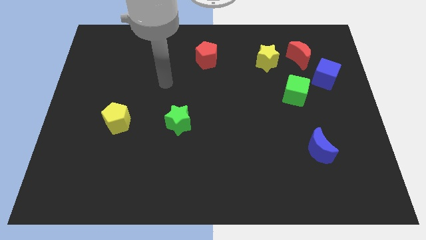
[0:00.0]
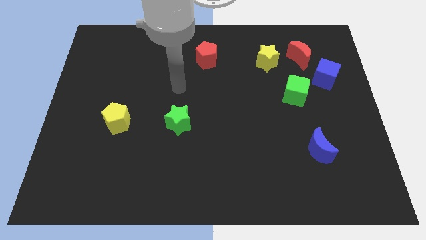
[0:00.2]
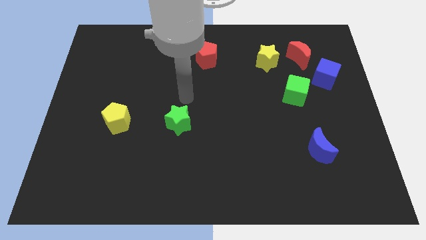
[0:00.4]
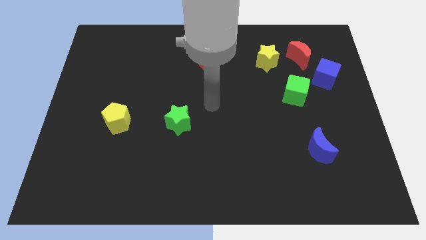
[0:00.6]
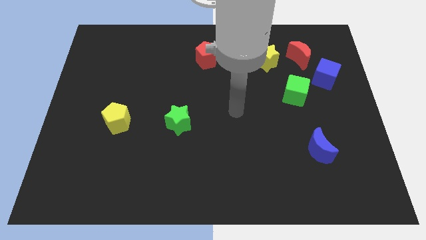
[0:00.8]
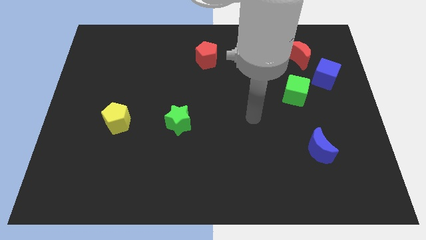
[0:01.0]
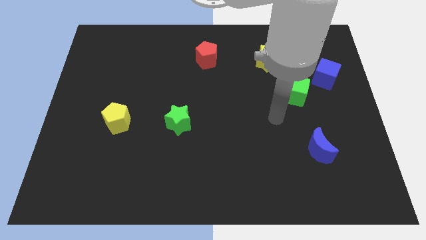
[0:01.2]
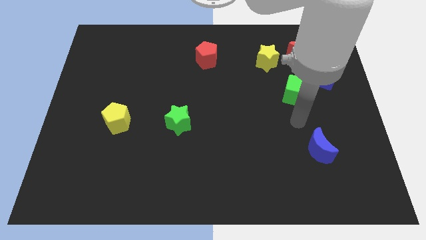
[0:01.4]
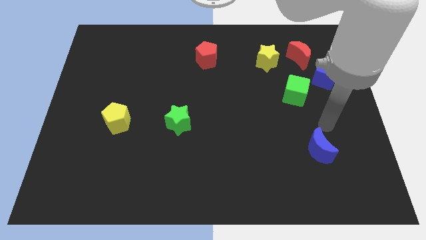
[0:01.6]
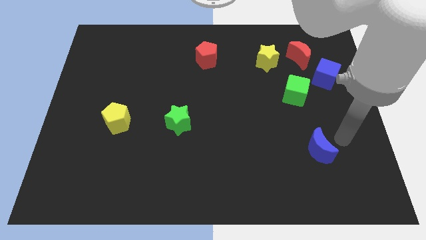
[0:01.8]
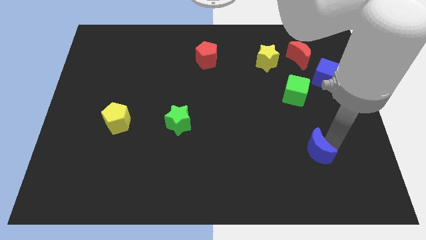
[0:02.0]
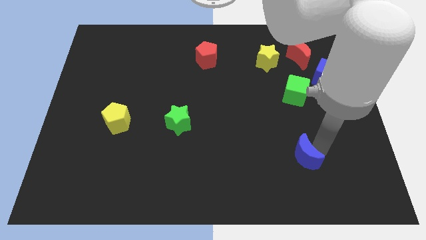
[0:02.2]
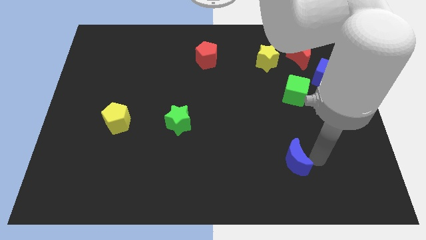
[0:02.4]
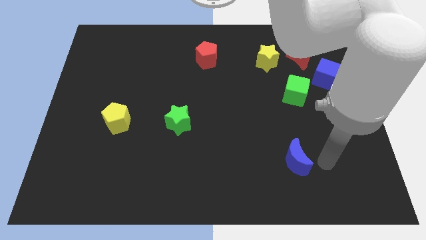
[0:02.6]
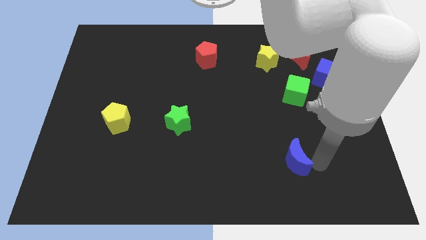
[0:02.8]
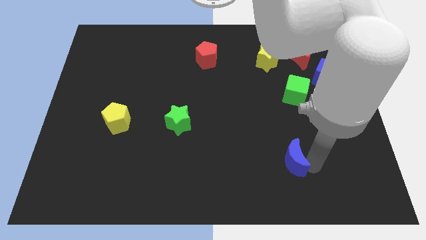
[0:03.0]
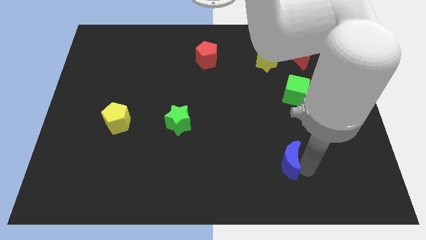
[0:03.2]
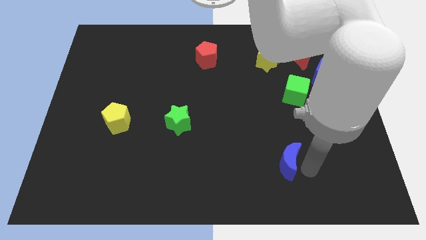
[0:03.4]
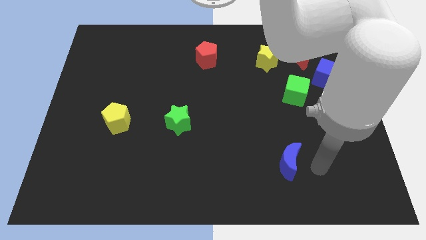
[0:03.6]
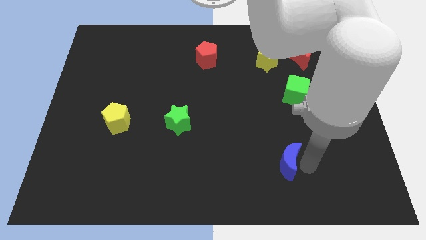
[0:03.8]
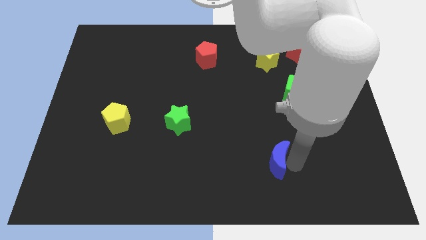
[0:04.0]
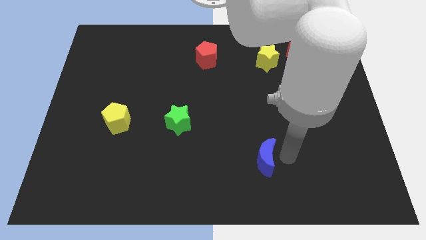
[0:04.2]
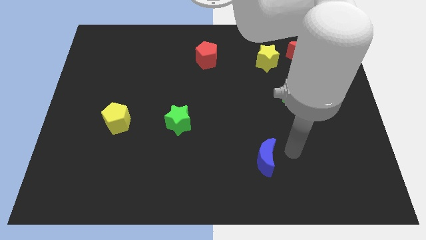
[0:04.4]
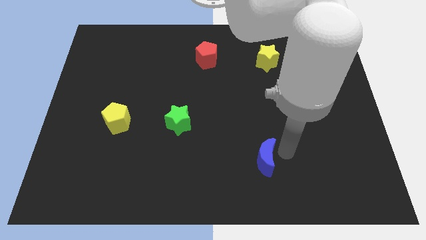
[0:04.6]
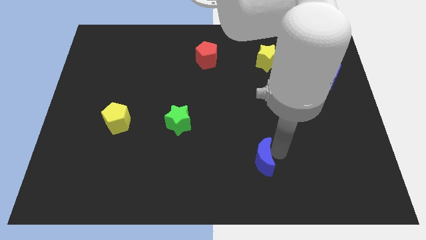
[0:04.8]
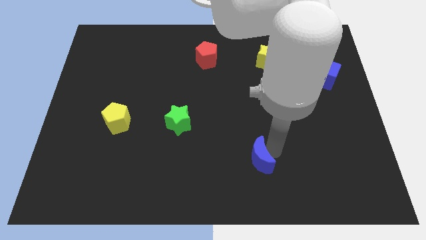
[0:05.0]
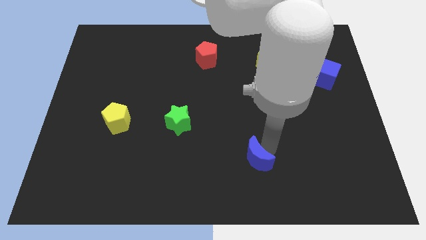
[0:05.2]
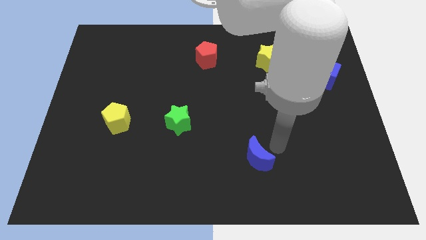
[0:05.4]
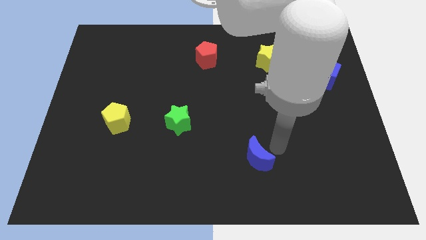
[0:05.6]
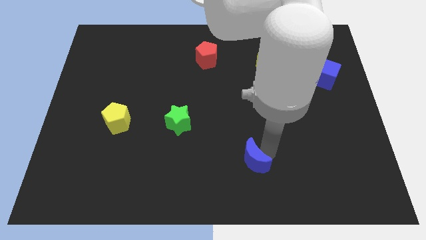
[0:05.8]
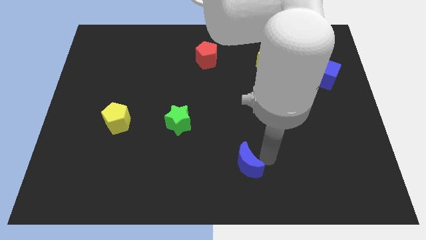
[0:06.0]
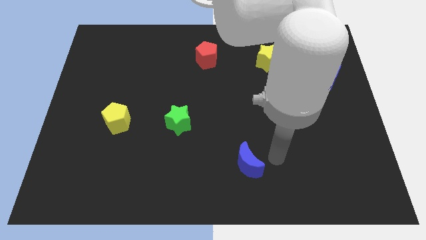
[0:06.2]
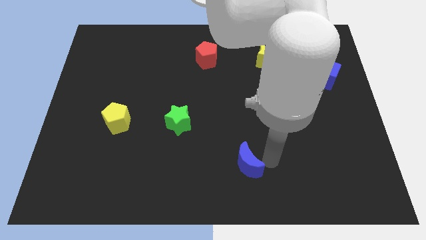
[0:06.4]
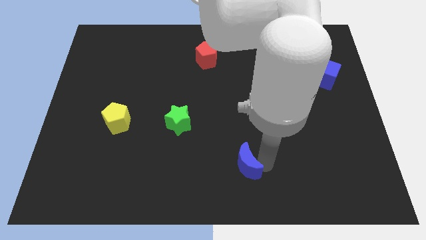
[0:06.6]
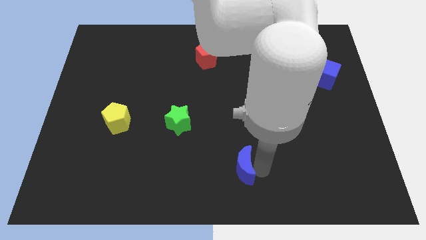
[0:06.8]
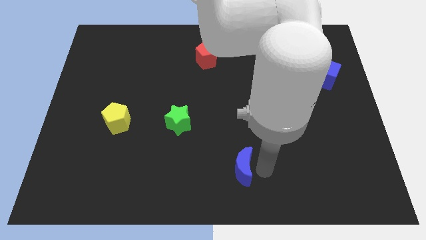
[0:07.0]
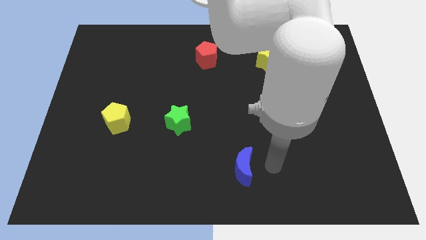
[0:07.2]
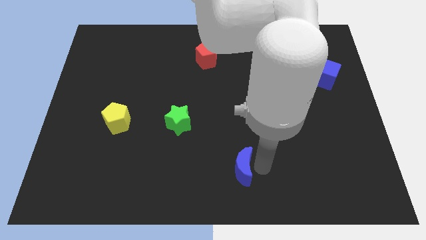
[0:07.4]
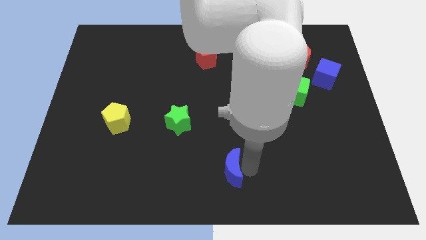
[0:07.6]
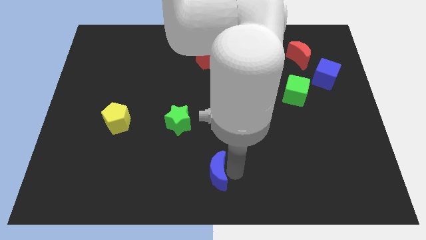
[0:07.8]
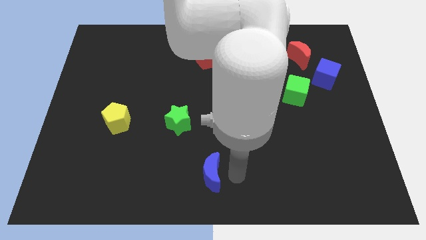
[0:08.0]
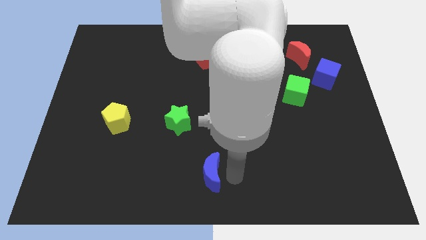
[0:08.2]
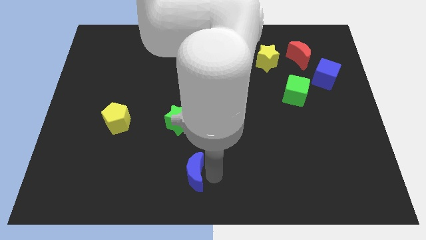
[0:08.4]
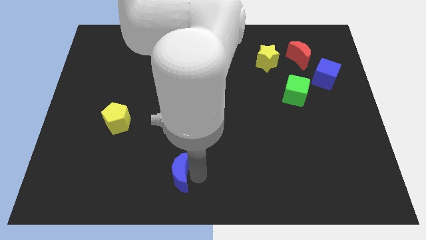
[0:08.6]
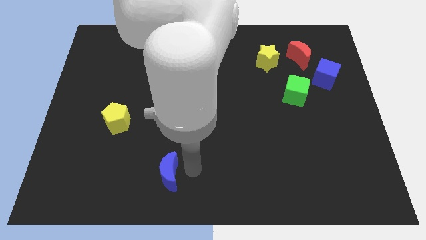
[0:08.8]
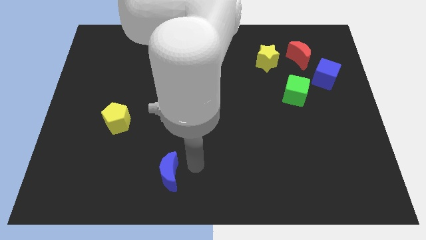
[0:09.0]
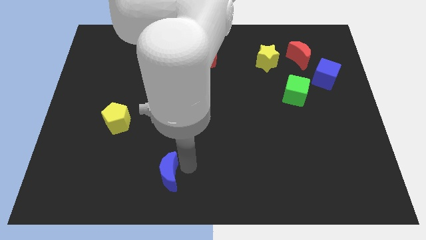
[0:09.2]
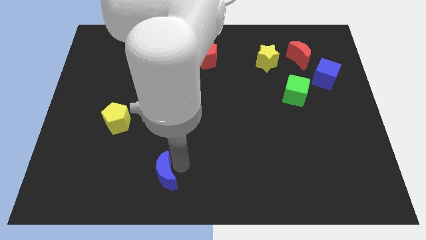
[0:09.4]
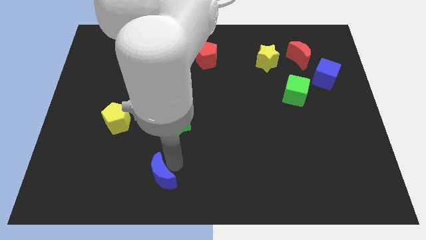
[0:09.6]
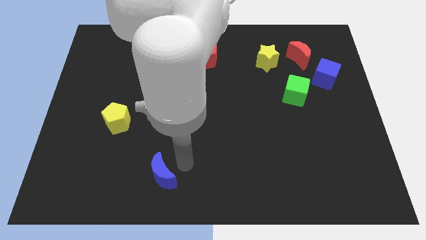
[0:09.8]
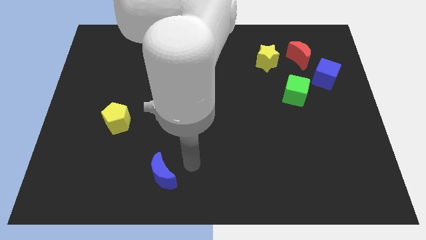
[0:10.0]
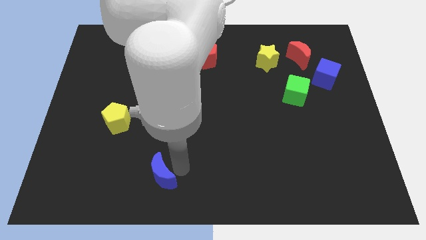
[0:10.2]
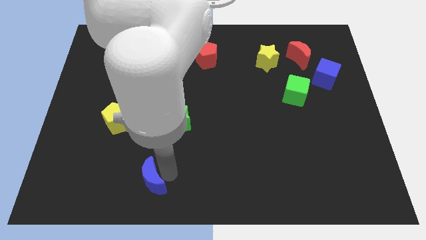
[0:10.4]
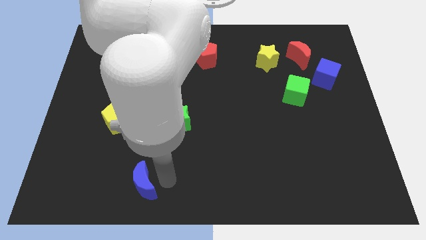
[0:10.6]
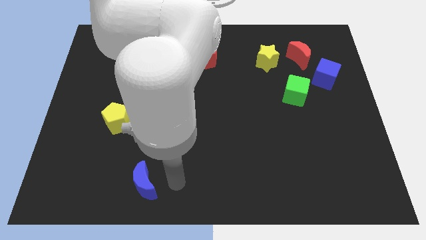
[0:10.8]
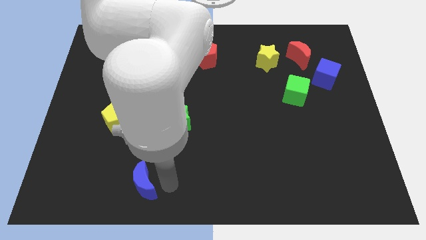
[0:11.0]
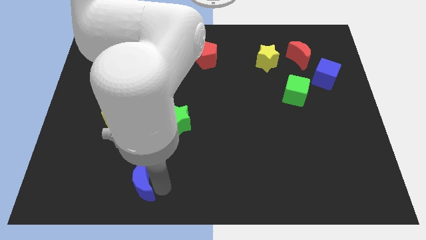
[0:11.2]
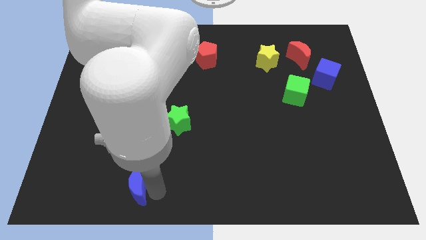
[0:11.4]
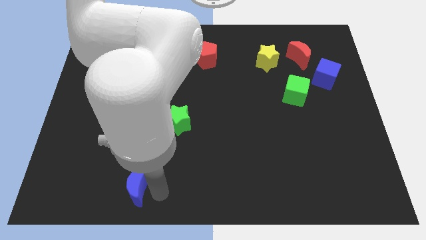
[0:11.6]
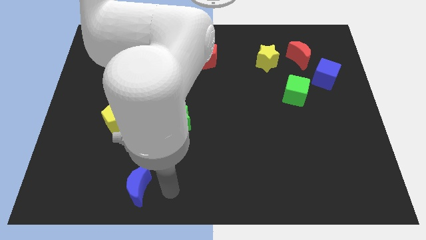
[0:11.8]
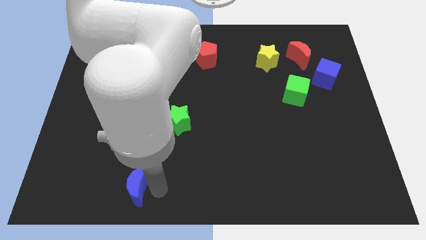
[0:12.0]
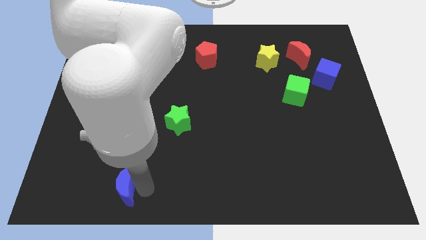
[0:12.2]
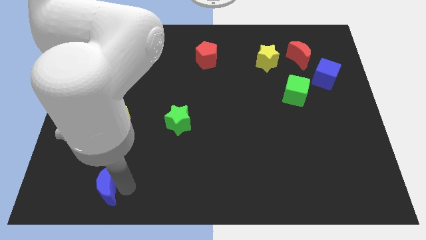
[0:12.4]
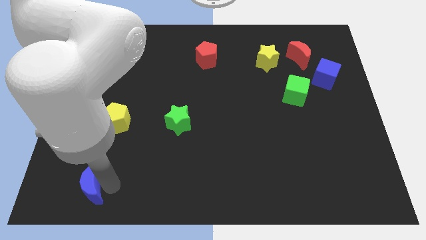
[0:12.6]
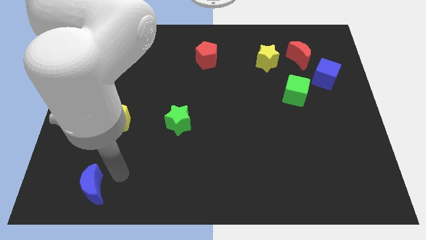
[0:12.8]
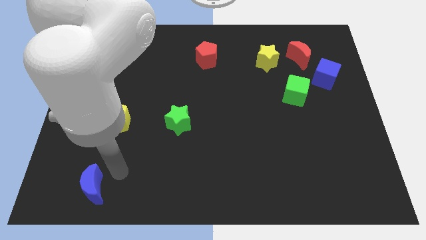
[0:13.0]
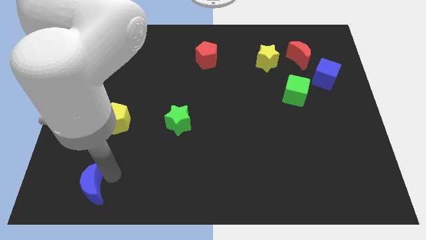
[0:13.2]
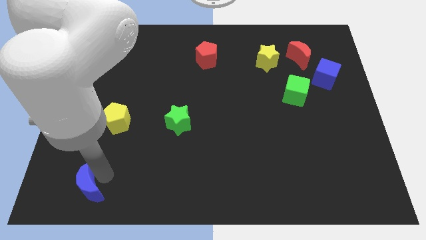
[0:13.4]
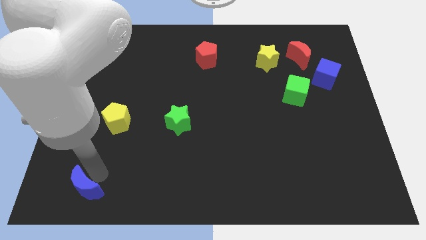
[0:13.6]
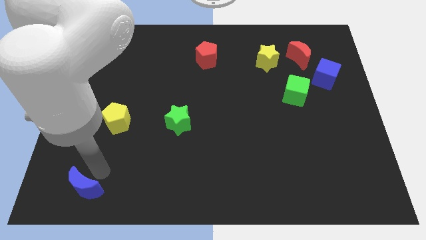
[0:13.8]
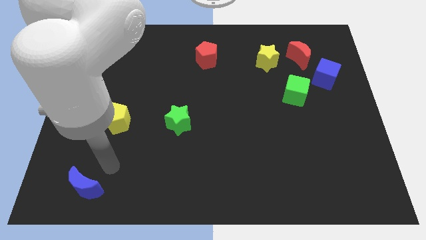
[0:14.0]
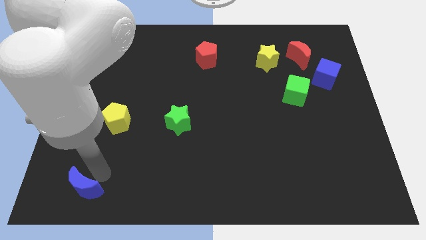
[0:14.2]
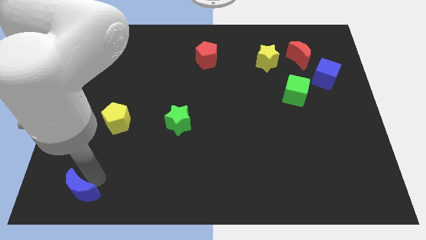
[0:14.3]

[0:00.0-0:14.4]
move the blue moon to the bottom left
